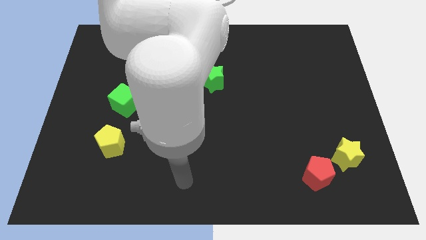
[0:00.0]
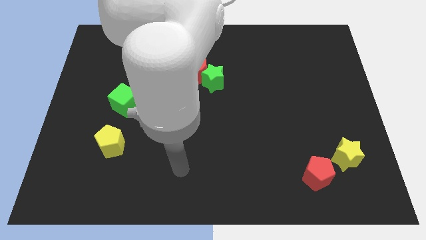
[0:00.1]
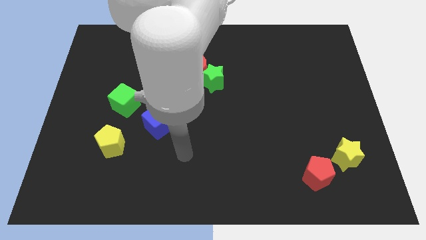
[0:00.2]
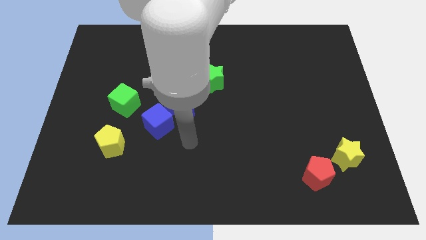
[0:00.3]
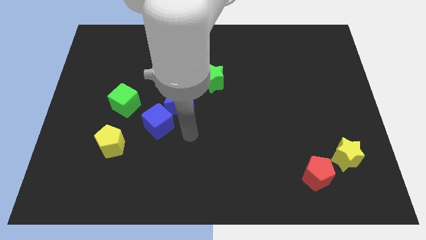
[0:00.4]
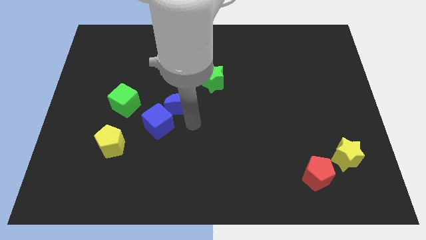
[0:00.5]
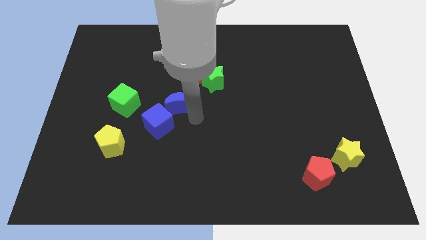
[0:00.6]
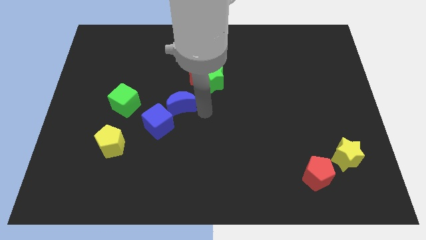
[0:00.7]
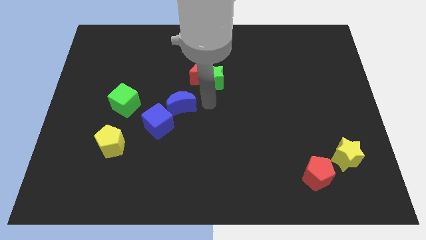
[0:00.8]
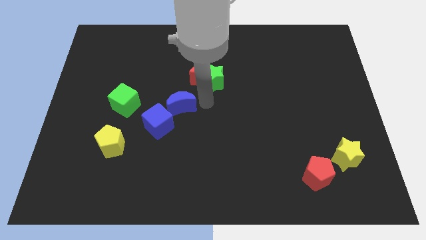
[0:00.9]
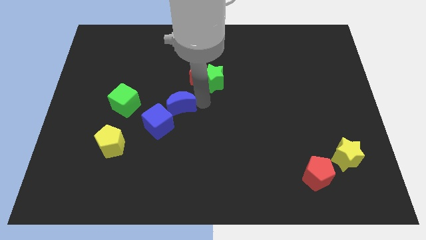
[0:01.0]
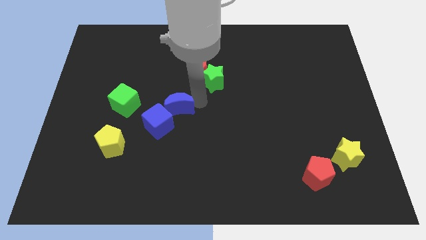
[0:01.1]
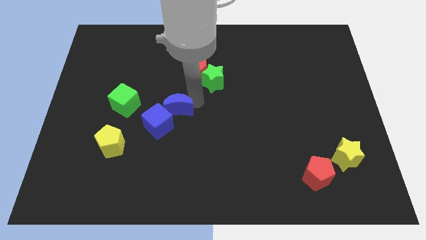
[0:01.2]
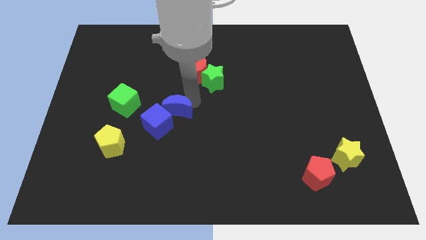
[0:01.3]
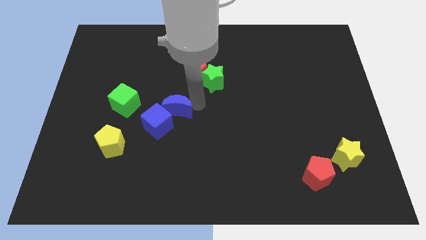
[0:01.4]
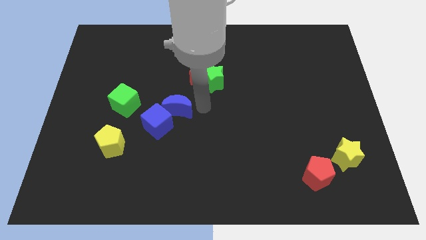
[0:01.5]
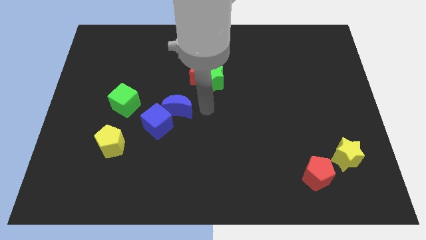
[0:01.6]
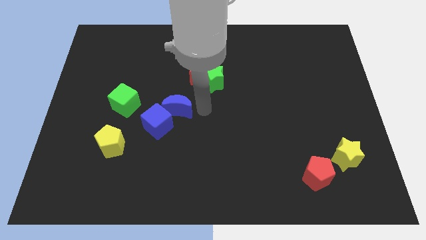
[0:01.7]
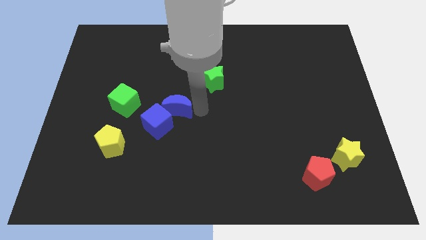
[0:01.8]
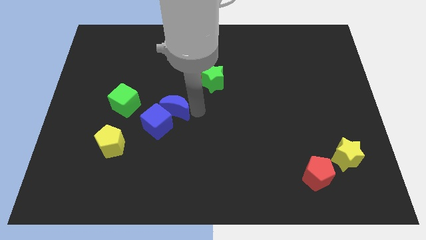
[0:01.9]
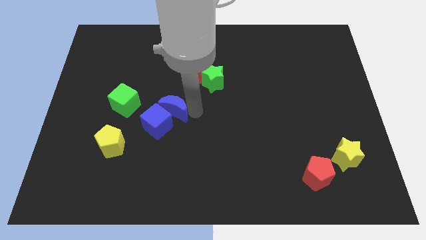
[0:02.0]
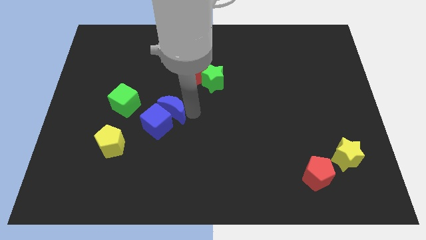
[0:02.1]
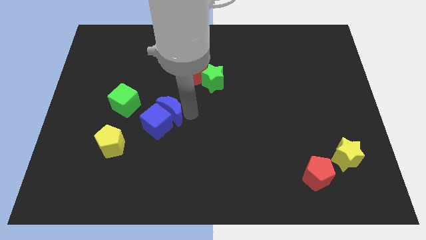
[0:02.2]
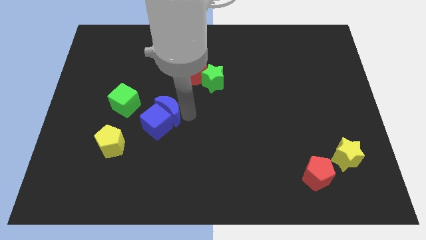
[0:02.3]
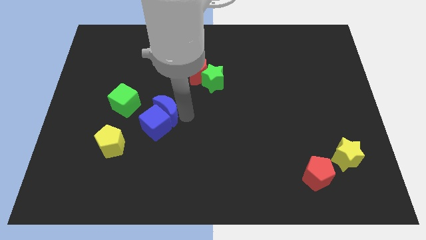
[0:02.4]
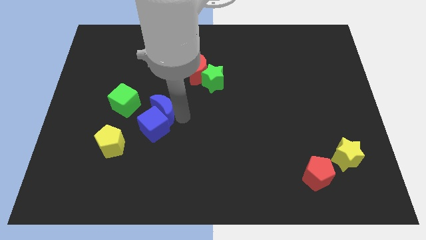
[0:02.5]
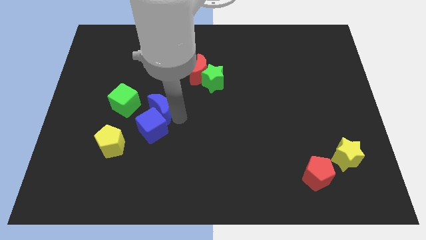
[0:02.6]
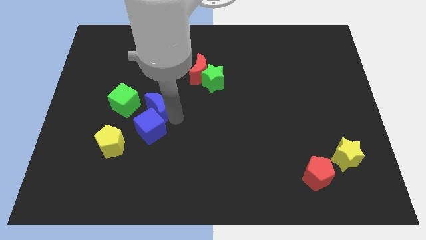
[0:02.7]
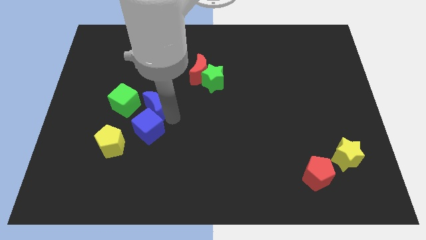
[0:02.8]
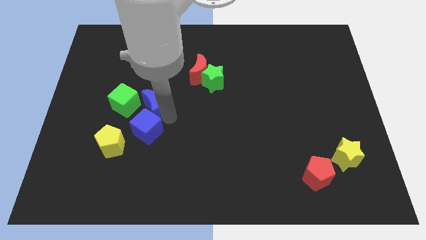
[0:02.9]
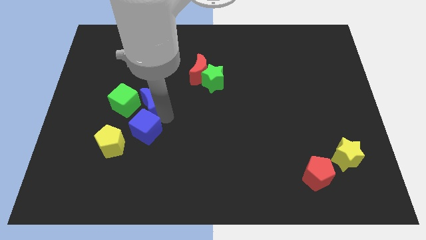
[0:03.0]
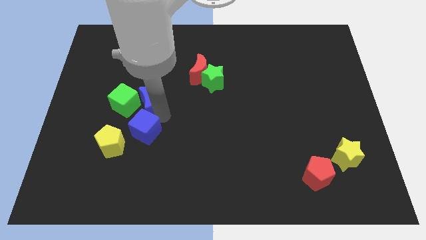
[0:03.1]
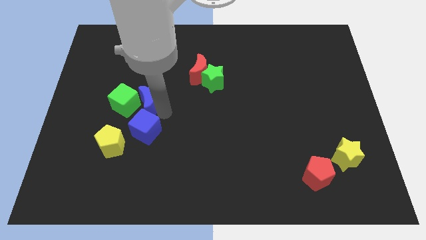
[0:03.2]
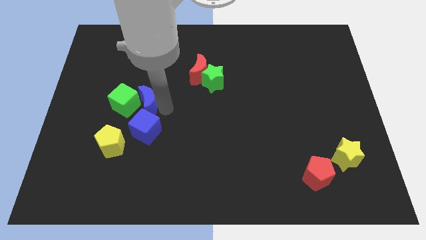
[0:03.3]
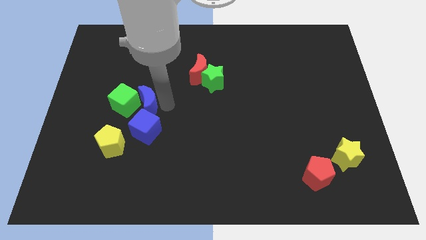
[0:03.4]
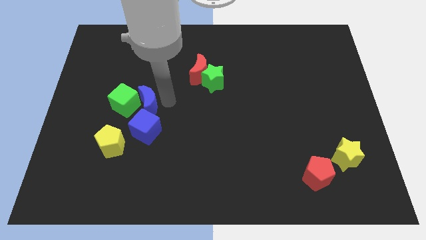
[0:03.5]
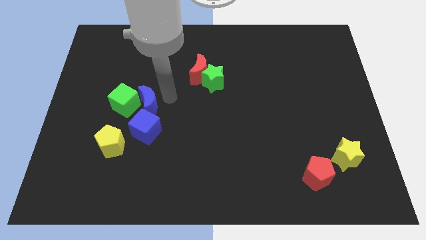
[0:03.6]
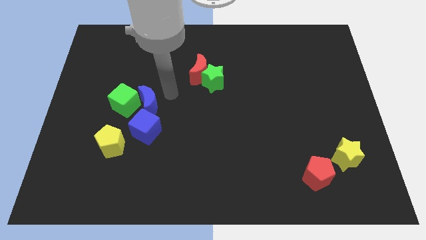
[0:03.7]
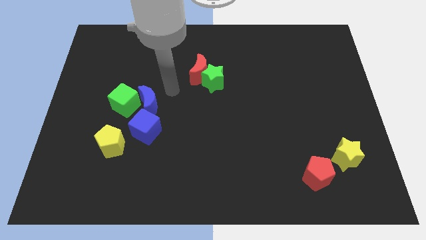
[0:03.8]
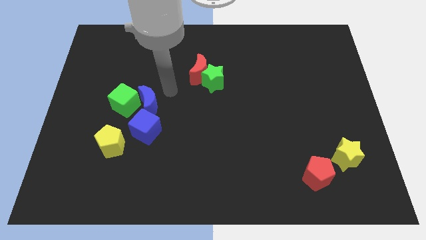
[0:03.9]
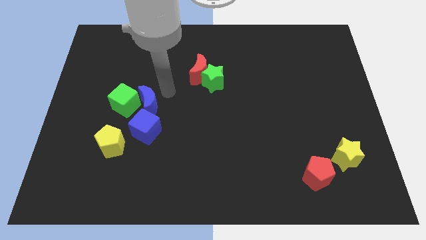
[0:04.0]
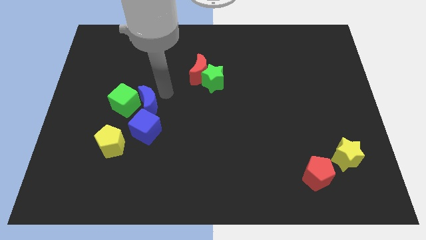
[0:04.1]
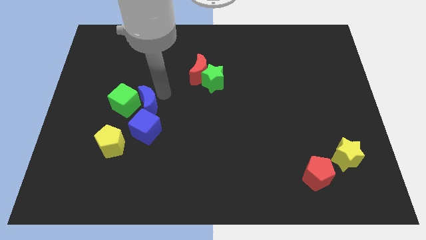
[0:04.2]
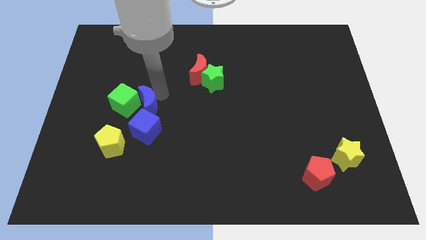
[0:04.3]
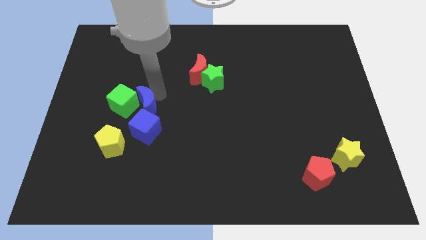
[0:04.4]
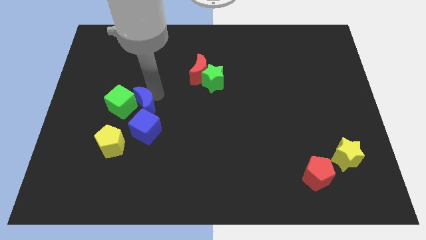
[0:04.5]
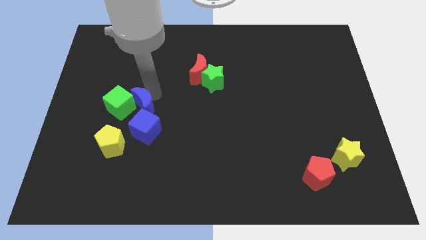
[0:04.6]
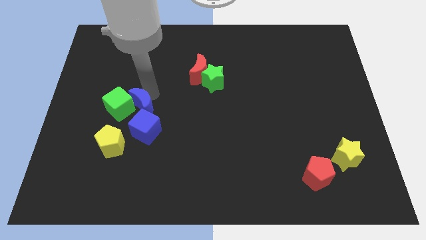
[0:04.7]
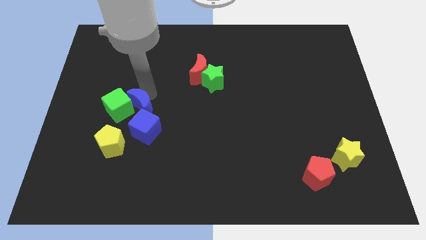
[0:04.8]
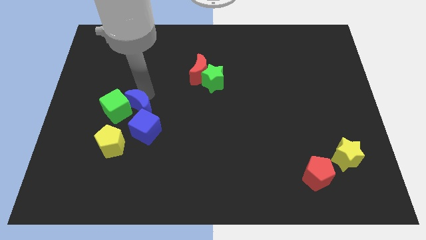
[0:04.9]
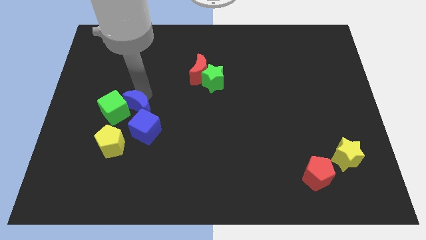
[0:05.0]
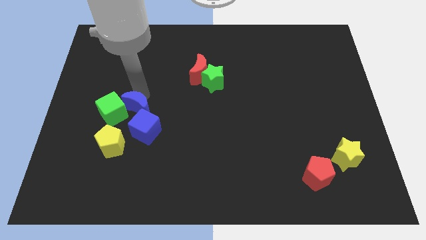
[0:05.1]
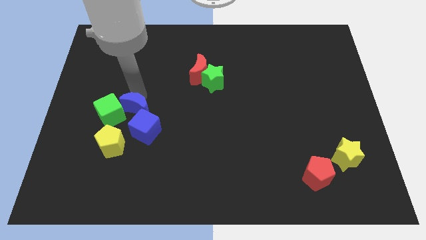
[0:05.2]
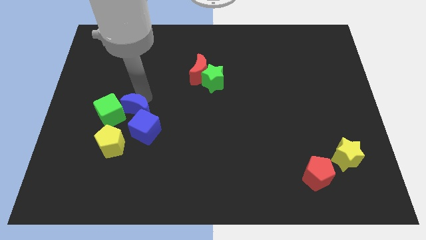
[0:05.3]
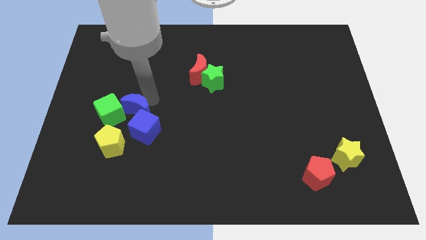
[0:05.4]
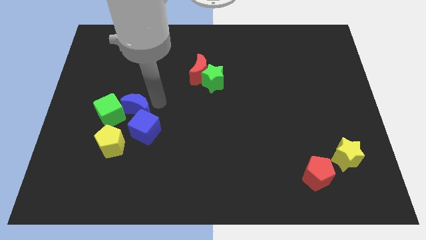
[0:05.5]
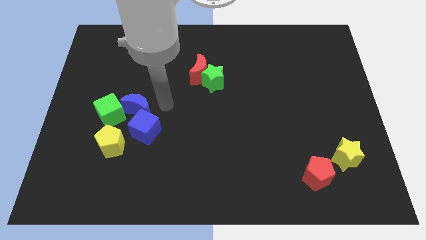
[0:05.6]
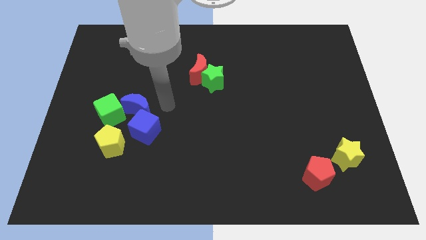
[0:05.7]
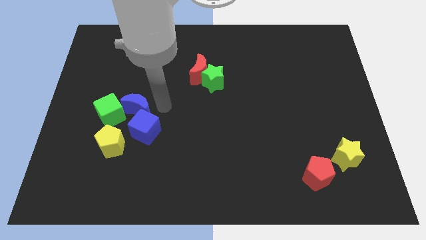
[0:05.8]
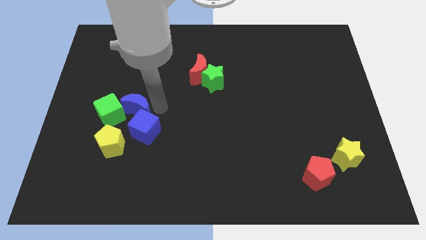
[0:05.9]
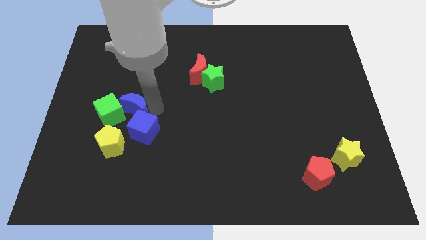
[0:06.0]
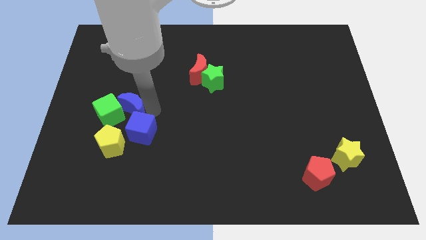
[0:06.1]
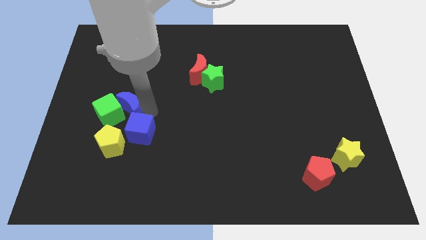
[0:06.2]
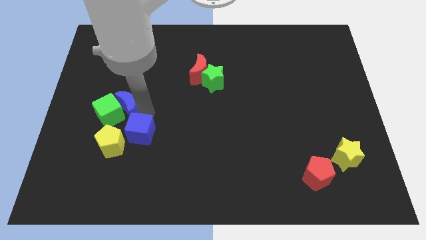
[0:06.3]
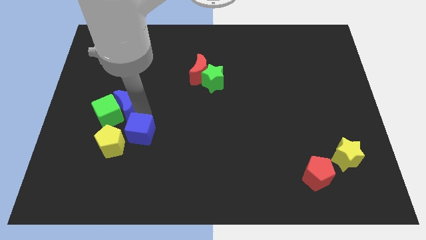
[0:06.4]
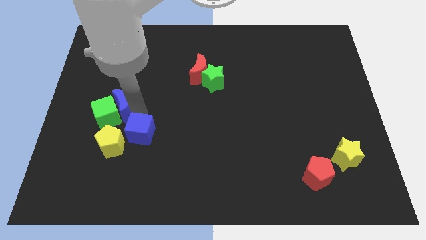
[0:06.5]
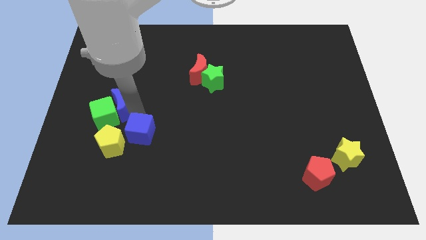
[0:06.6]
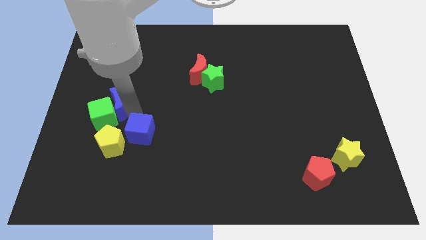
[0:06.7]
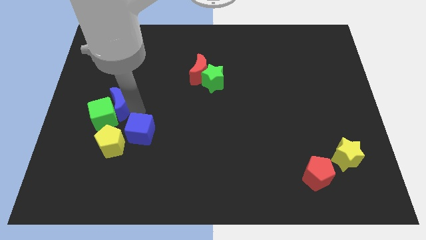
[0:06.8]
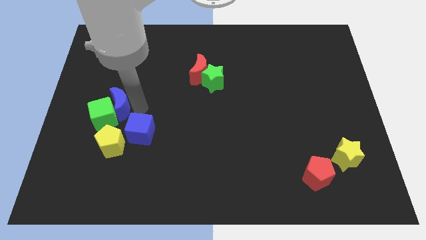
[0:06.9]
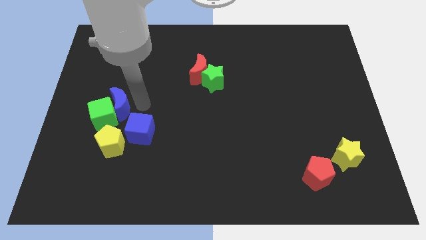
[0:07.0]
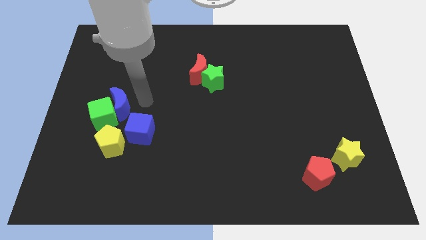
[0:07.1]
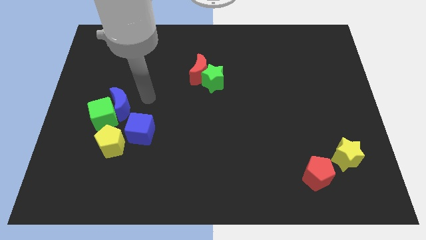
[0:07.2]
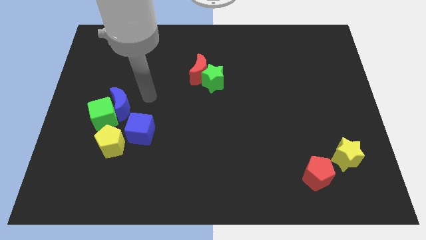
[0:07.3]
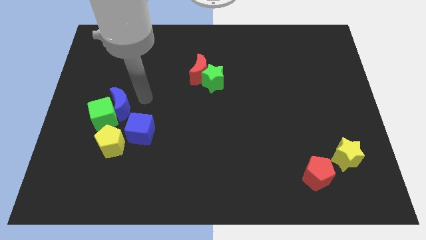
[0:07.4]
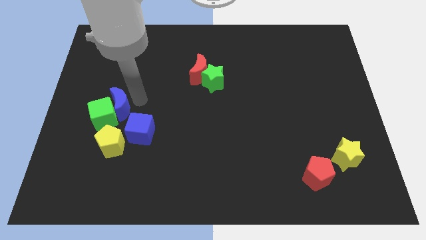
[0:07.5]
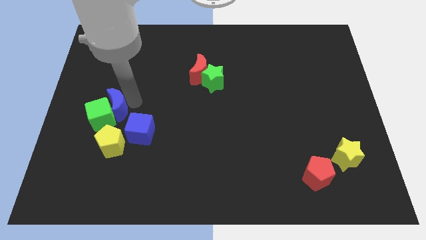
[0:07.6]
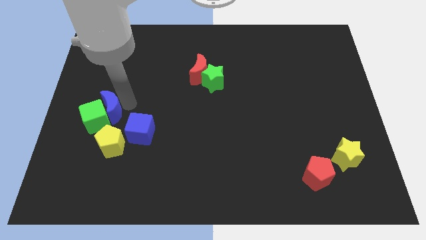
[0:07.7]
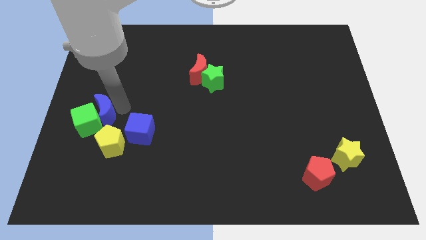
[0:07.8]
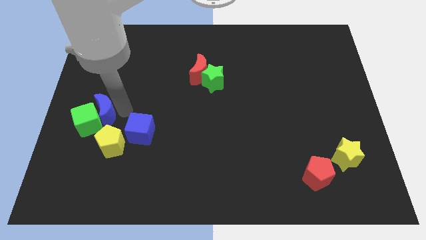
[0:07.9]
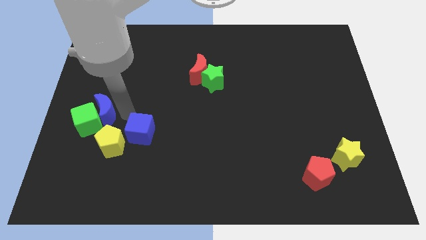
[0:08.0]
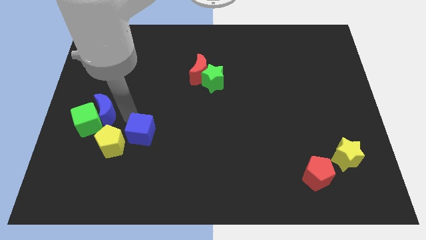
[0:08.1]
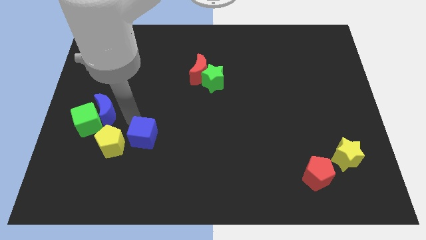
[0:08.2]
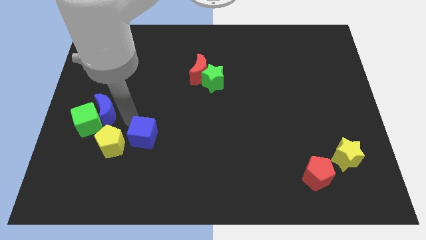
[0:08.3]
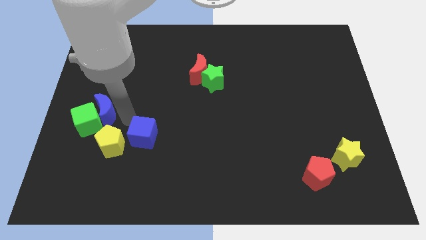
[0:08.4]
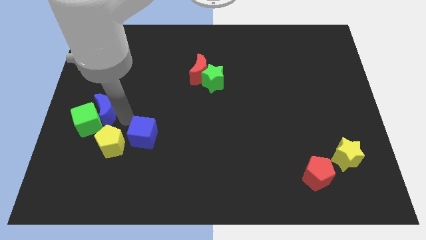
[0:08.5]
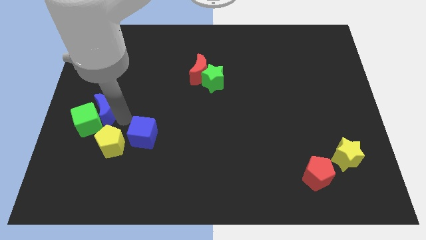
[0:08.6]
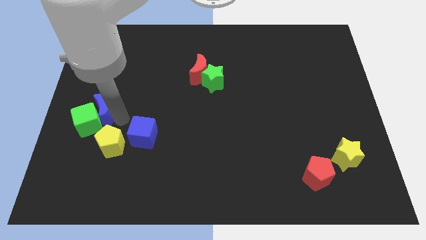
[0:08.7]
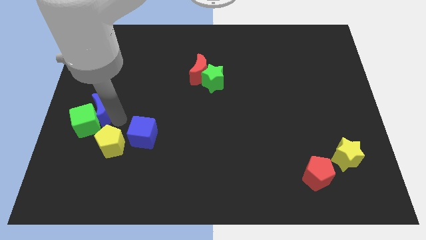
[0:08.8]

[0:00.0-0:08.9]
slide the blue moon to the left side of the board
